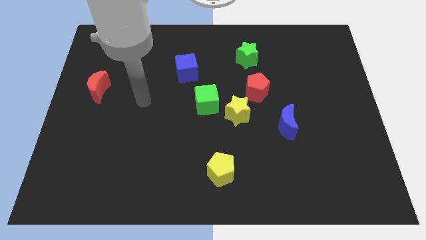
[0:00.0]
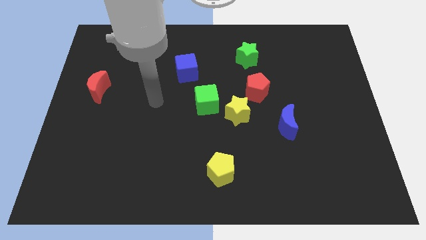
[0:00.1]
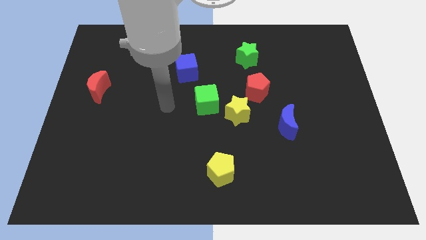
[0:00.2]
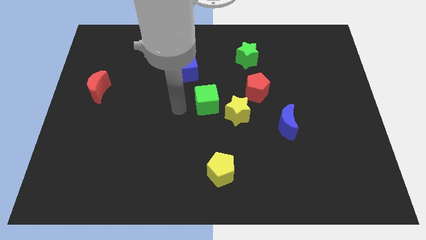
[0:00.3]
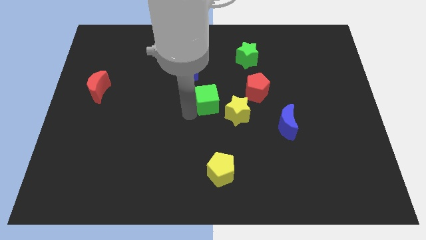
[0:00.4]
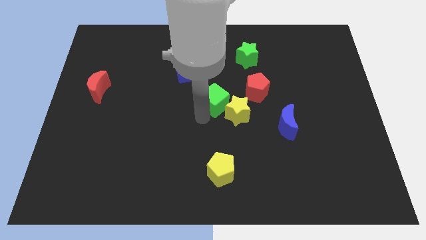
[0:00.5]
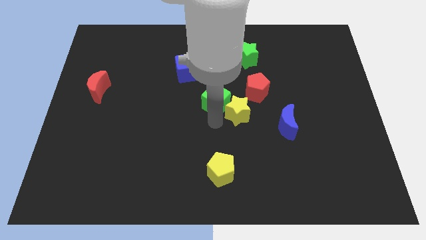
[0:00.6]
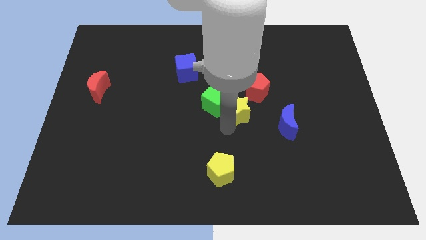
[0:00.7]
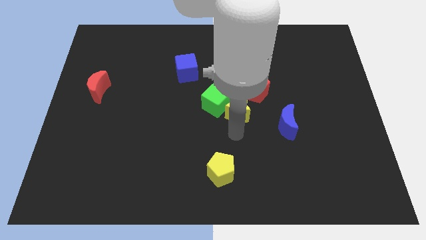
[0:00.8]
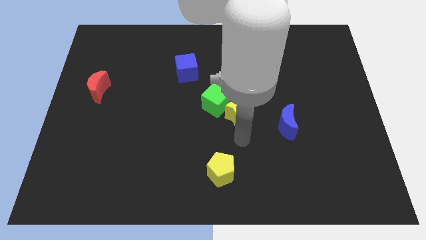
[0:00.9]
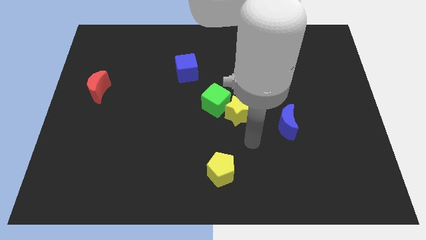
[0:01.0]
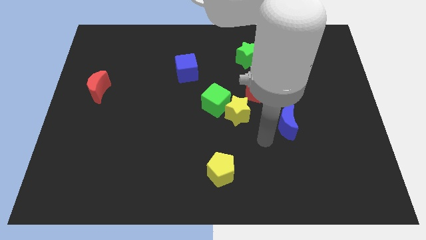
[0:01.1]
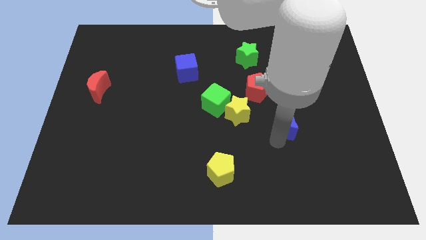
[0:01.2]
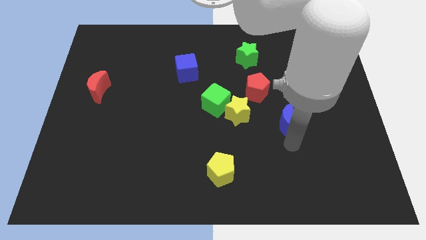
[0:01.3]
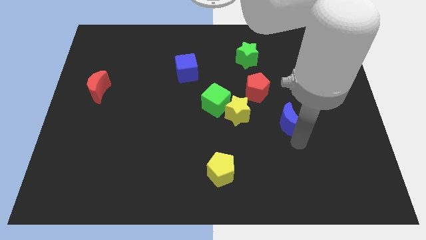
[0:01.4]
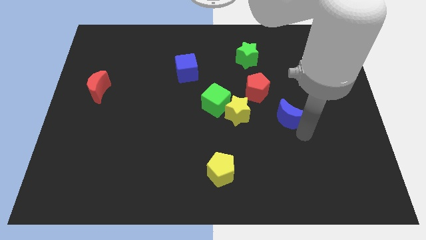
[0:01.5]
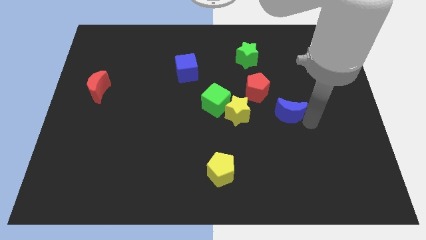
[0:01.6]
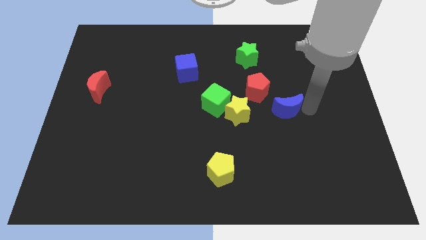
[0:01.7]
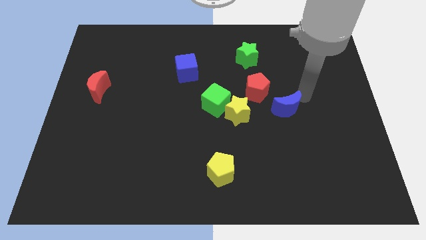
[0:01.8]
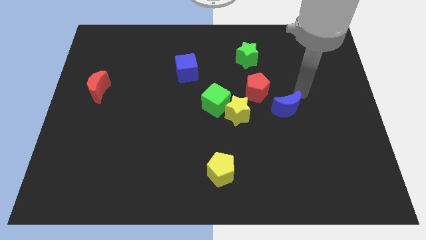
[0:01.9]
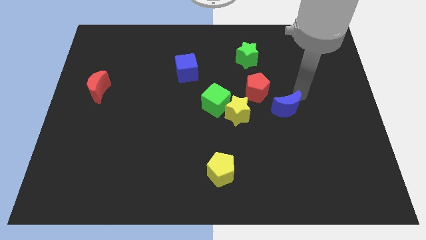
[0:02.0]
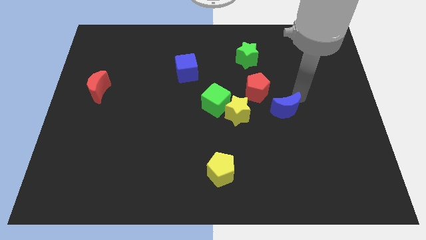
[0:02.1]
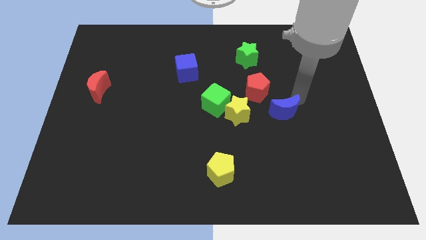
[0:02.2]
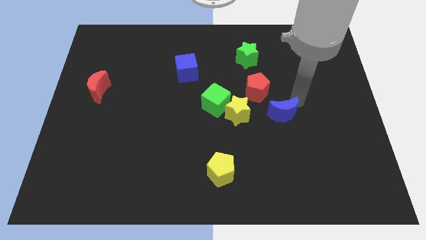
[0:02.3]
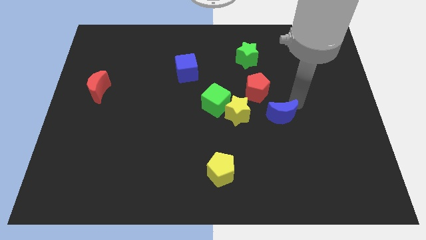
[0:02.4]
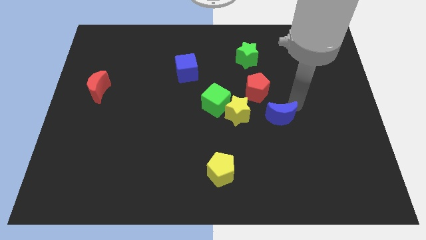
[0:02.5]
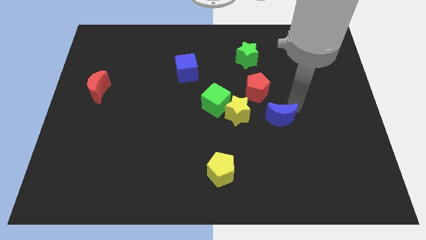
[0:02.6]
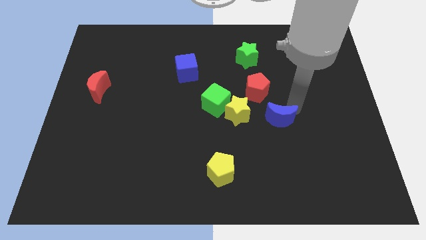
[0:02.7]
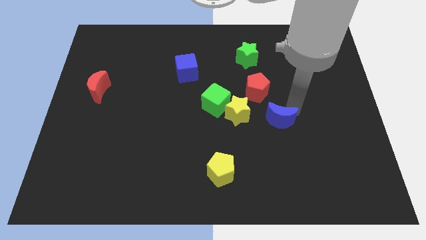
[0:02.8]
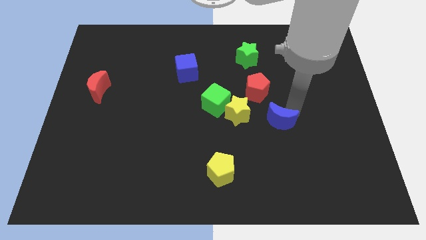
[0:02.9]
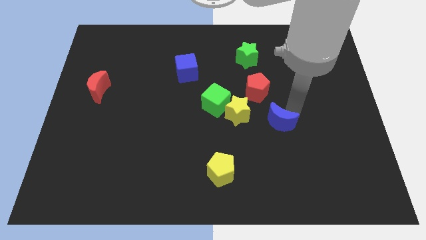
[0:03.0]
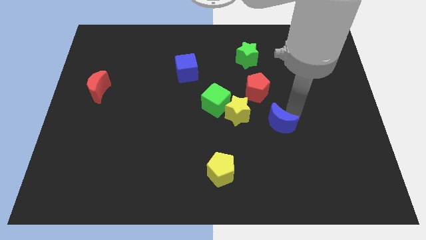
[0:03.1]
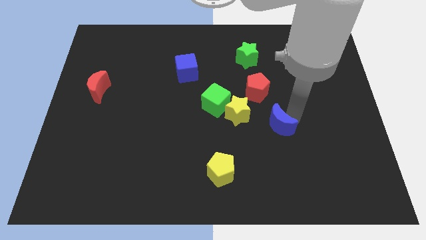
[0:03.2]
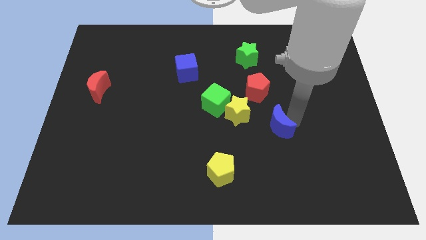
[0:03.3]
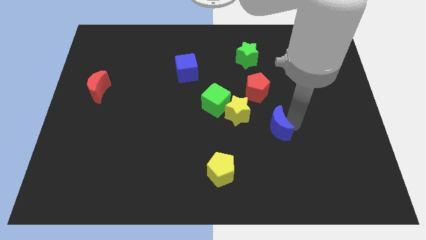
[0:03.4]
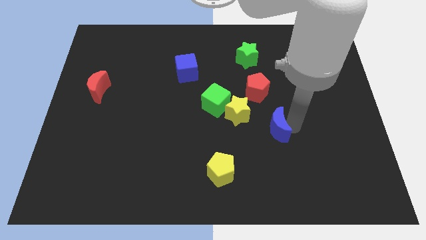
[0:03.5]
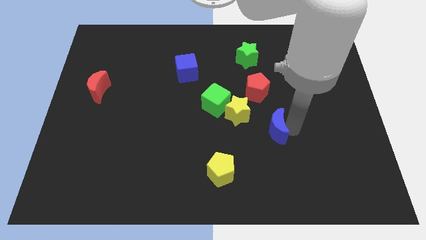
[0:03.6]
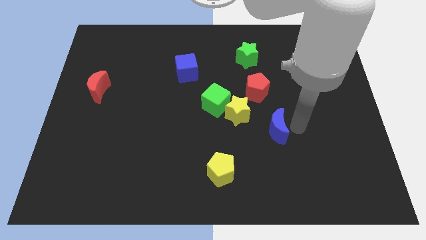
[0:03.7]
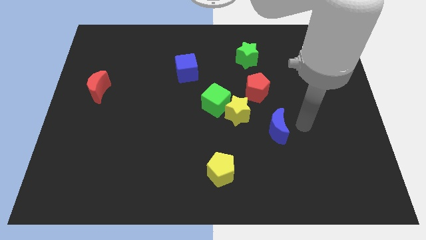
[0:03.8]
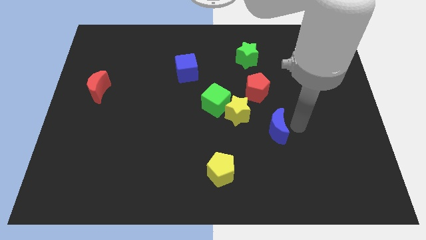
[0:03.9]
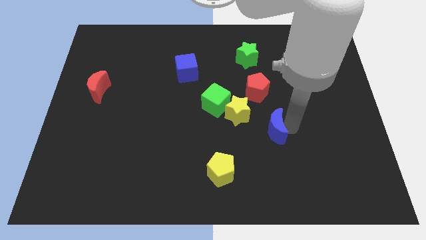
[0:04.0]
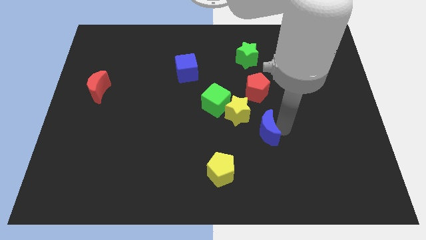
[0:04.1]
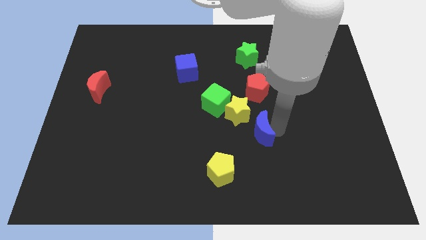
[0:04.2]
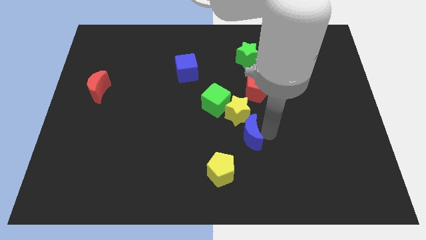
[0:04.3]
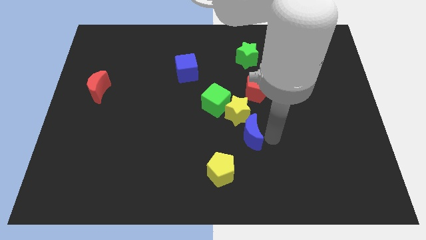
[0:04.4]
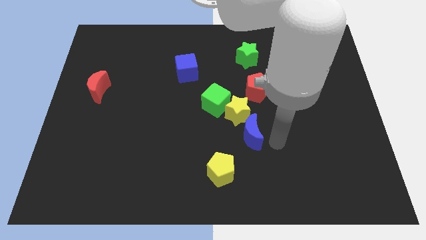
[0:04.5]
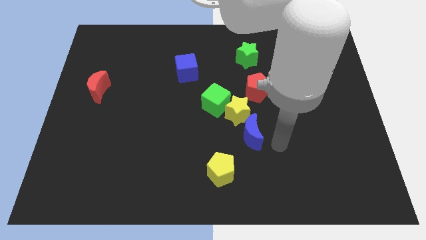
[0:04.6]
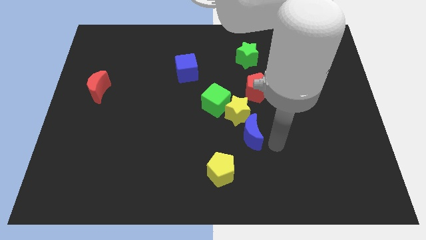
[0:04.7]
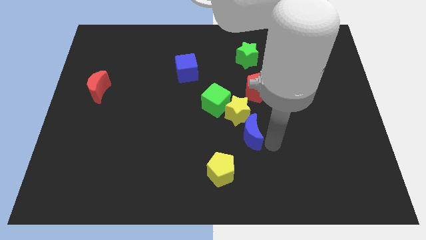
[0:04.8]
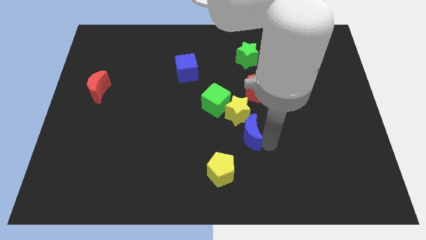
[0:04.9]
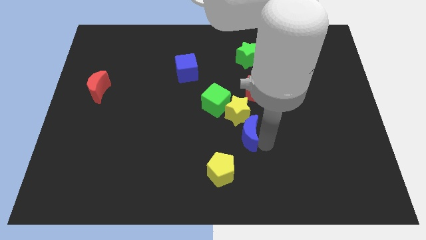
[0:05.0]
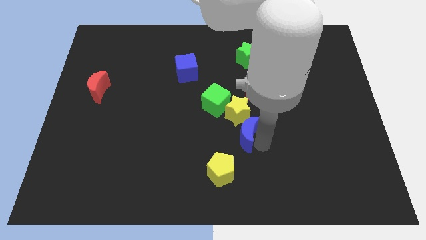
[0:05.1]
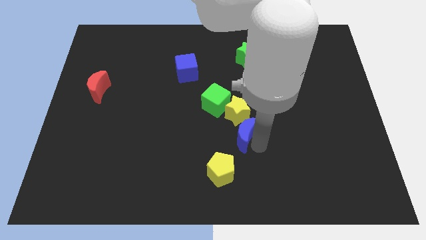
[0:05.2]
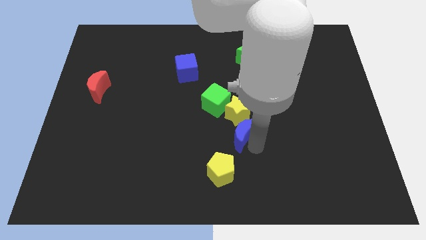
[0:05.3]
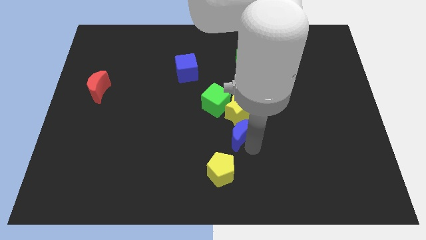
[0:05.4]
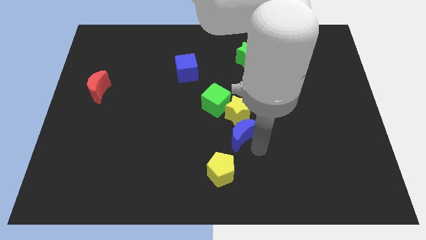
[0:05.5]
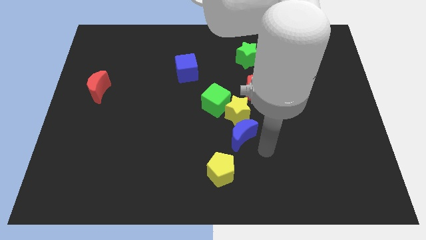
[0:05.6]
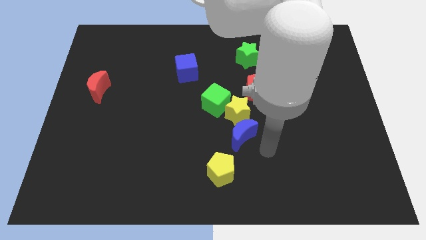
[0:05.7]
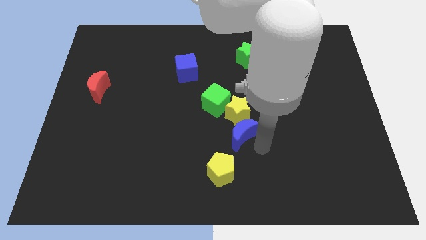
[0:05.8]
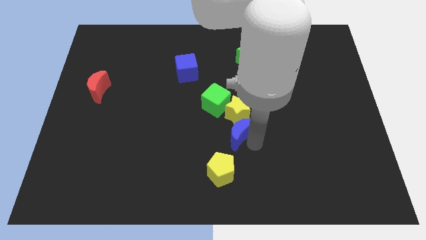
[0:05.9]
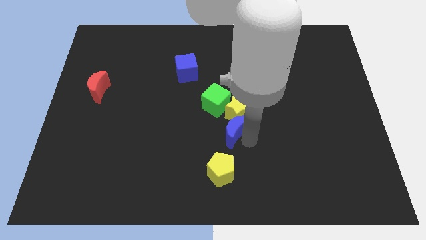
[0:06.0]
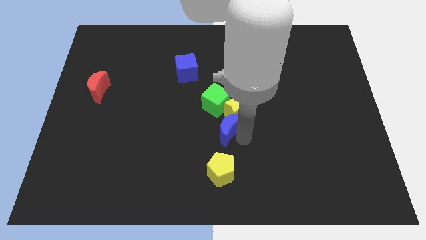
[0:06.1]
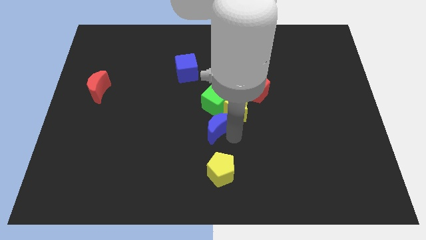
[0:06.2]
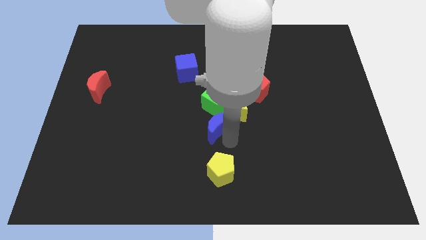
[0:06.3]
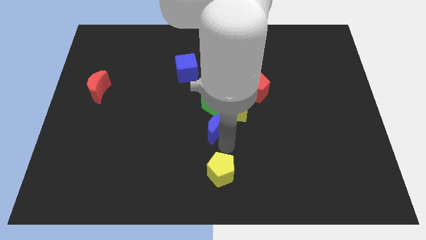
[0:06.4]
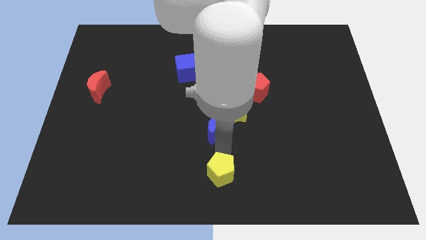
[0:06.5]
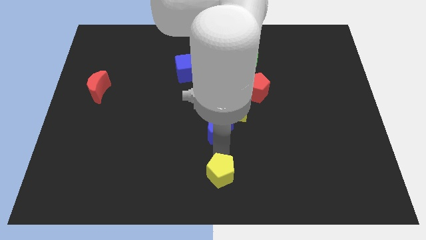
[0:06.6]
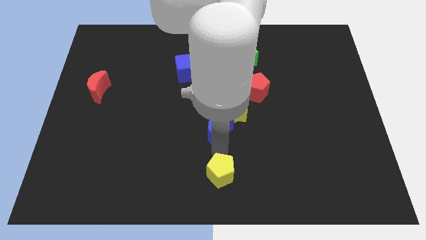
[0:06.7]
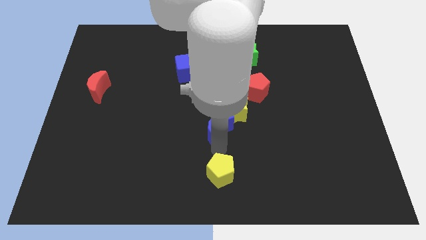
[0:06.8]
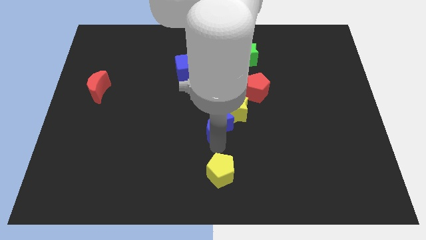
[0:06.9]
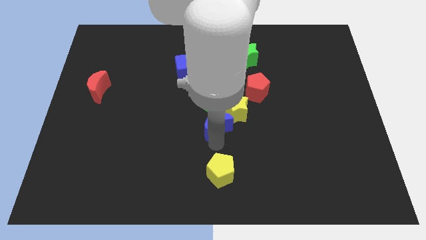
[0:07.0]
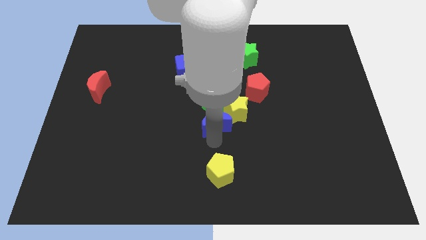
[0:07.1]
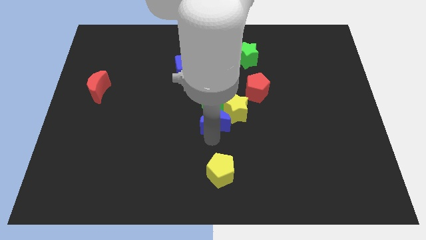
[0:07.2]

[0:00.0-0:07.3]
push the blue moon next to the green cube

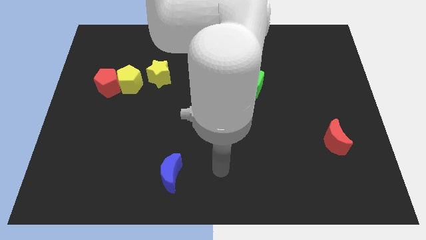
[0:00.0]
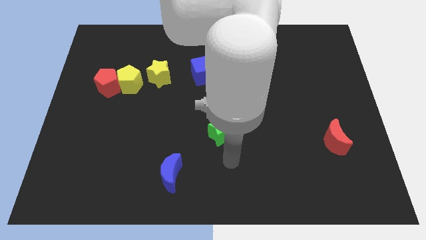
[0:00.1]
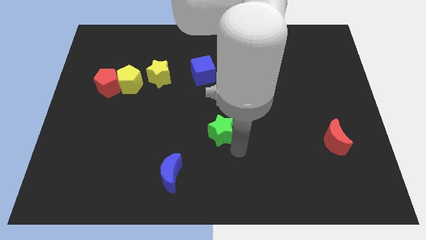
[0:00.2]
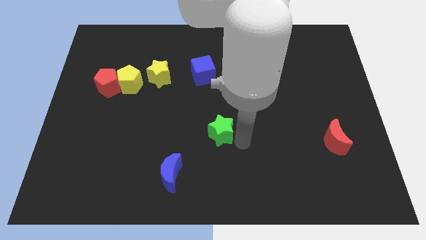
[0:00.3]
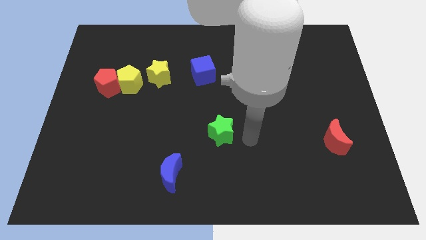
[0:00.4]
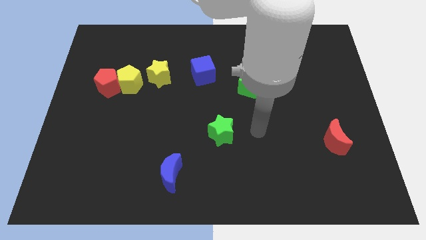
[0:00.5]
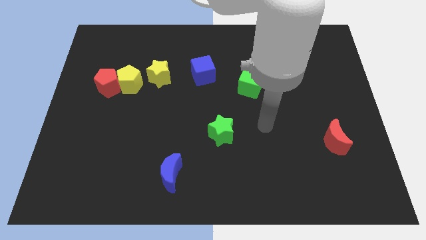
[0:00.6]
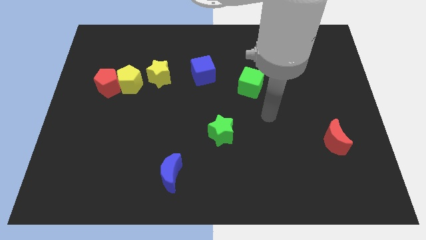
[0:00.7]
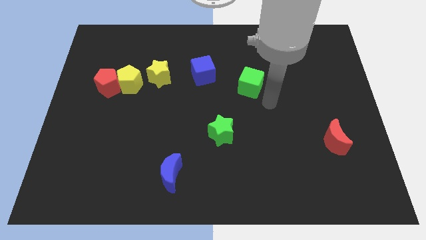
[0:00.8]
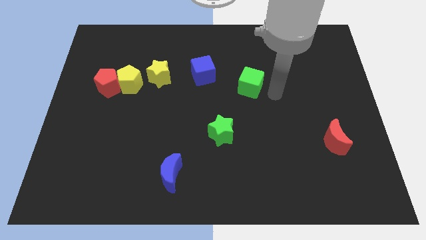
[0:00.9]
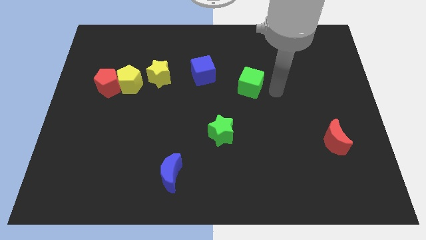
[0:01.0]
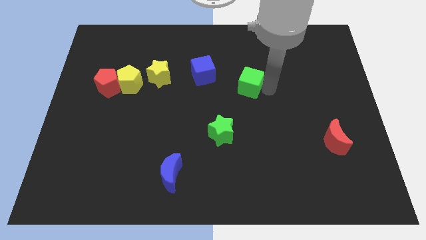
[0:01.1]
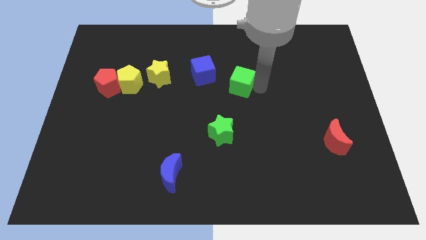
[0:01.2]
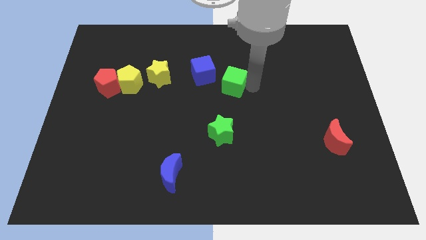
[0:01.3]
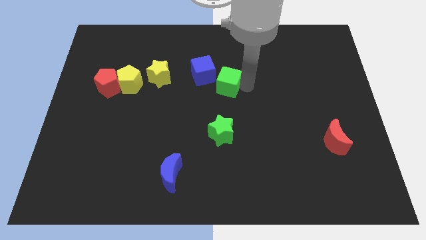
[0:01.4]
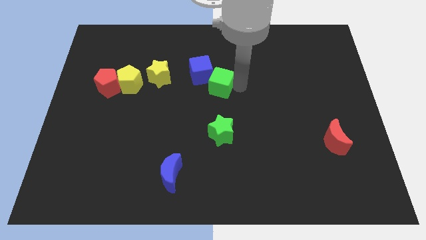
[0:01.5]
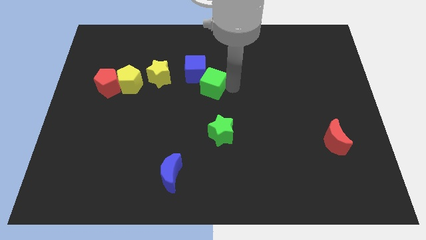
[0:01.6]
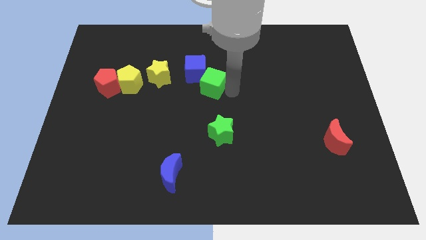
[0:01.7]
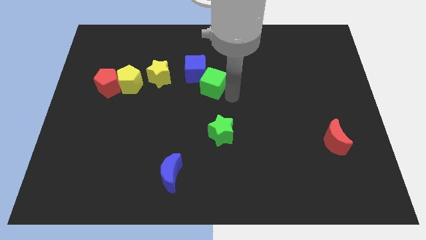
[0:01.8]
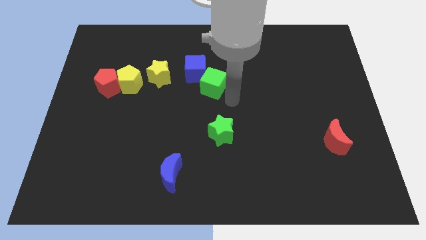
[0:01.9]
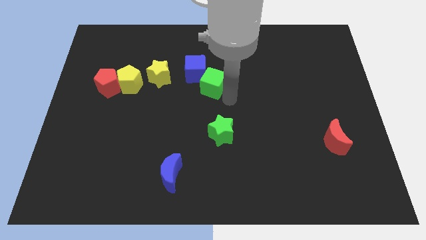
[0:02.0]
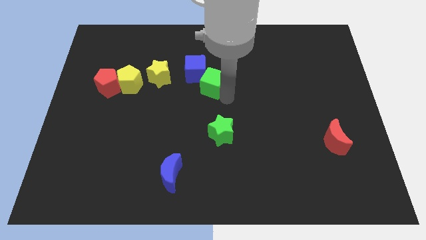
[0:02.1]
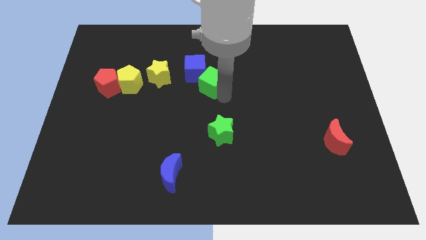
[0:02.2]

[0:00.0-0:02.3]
move the green cube close to the blue cube
